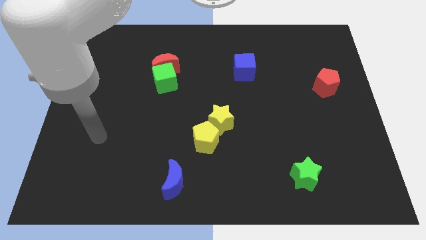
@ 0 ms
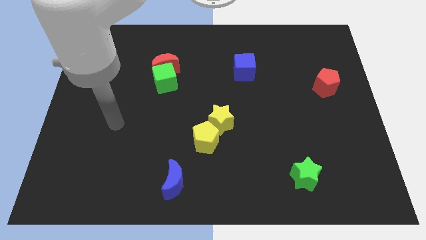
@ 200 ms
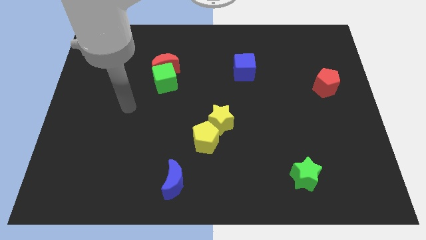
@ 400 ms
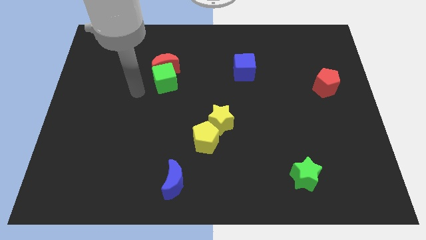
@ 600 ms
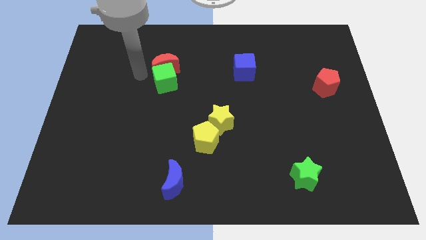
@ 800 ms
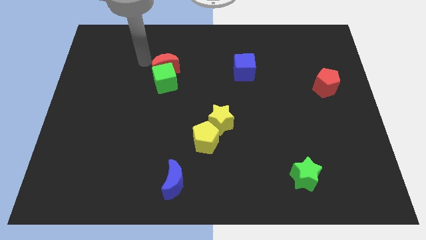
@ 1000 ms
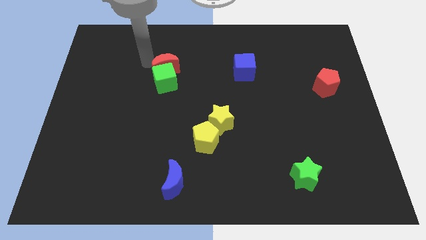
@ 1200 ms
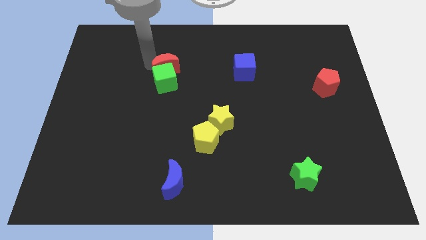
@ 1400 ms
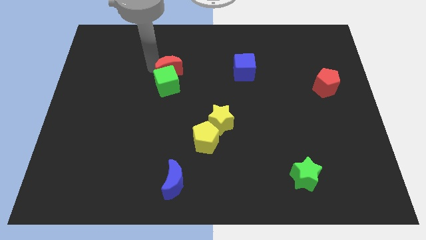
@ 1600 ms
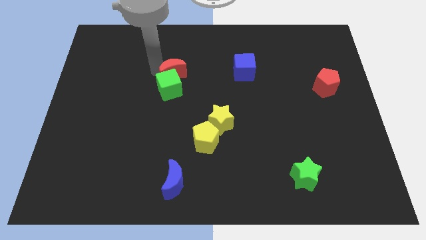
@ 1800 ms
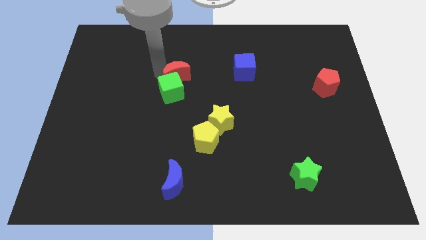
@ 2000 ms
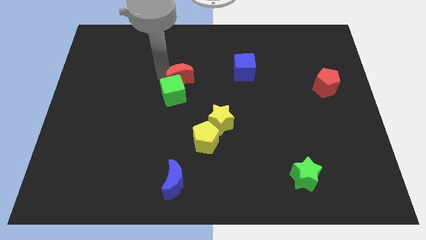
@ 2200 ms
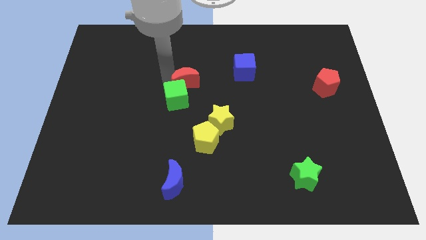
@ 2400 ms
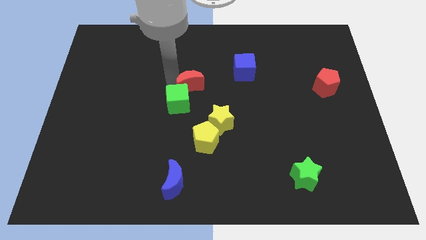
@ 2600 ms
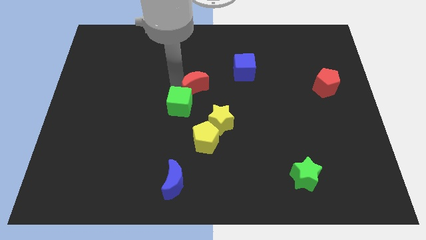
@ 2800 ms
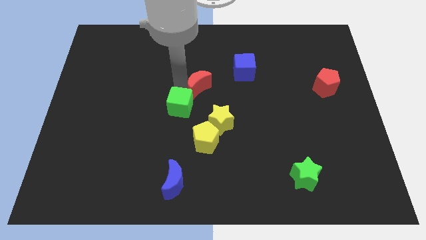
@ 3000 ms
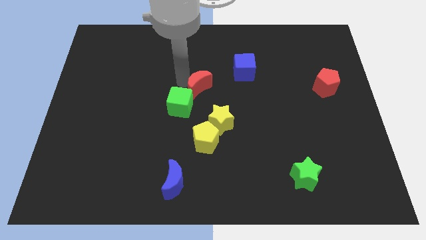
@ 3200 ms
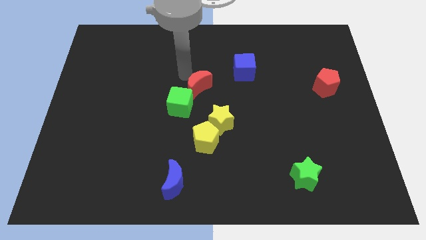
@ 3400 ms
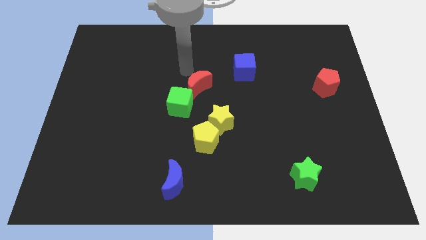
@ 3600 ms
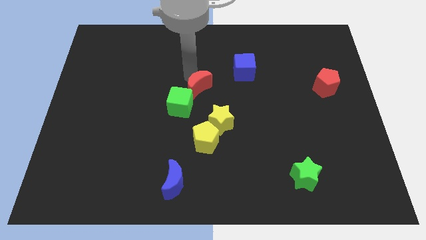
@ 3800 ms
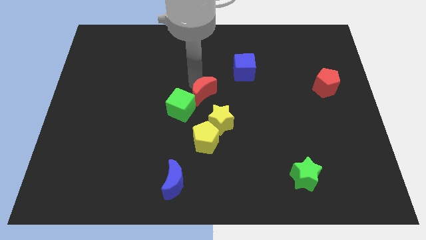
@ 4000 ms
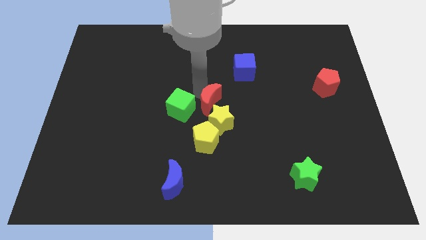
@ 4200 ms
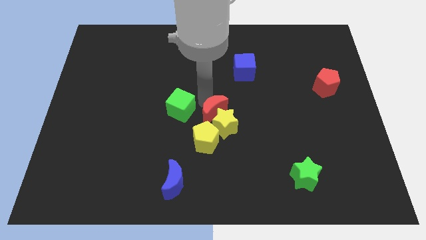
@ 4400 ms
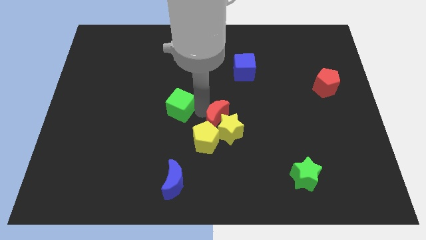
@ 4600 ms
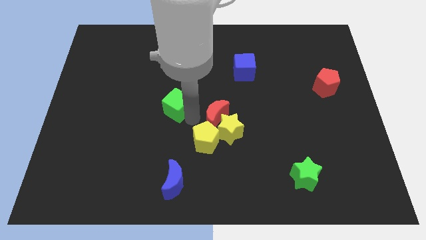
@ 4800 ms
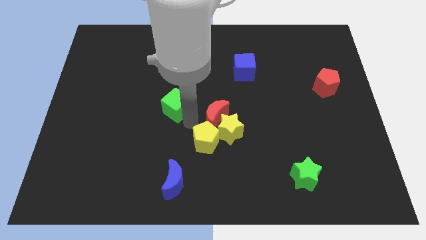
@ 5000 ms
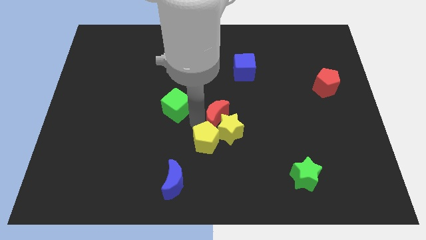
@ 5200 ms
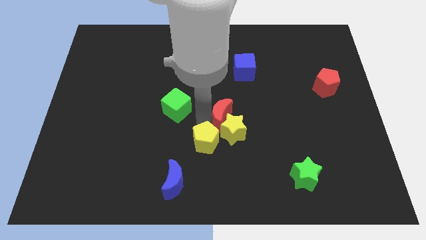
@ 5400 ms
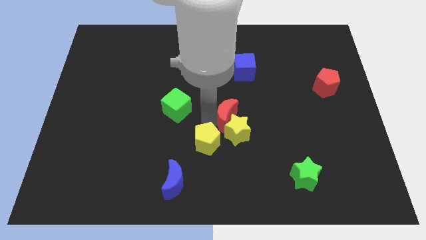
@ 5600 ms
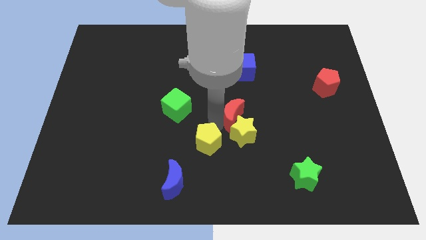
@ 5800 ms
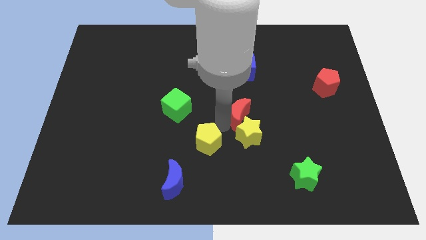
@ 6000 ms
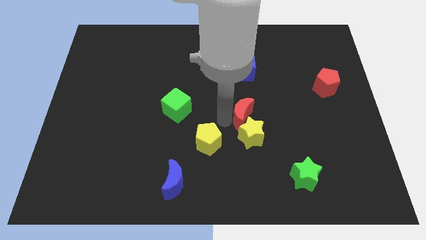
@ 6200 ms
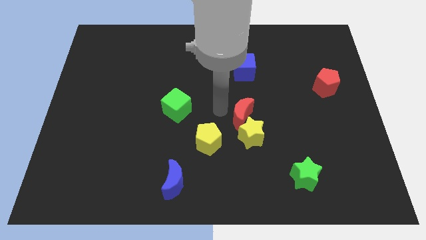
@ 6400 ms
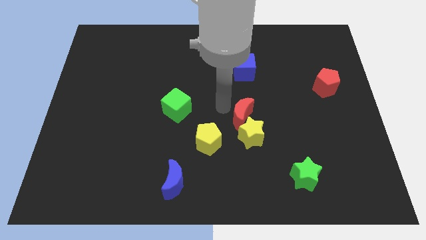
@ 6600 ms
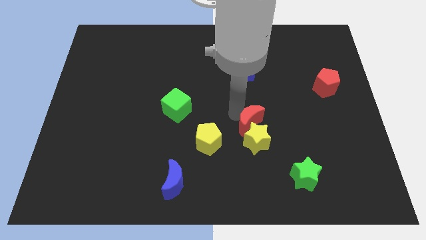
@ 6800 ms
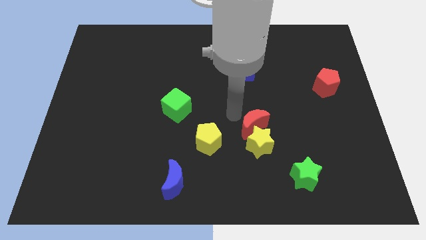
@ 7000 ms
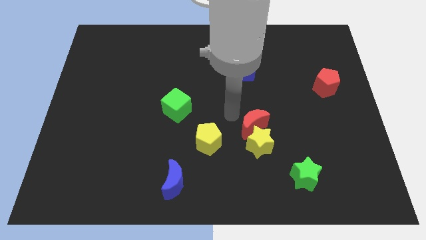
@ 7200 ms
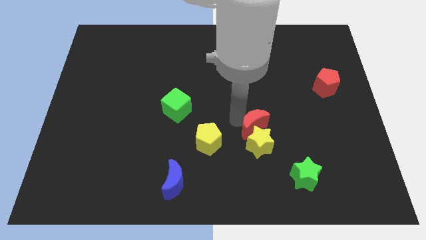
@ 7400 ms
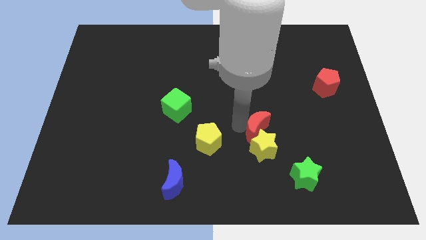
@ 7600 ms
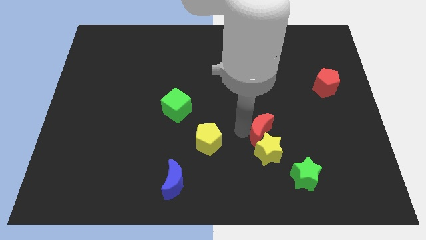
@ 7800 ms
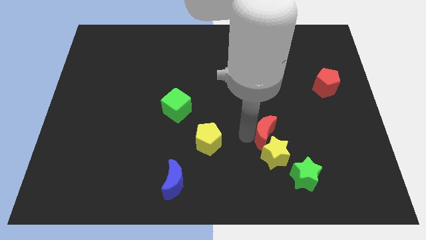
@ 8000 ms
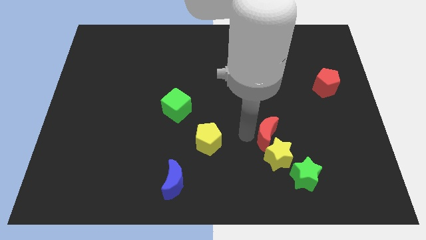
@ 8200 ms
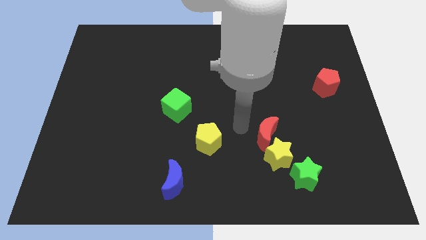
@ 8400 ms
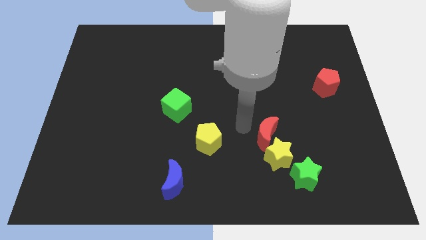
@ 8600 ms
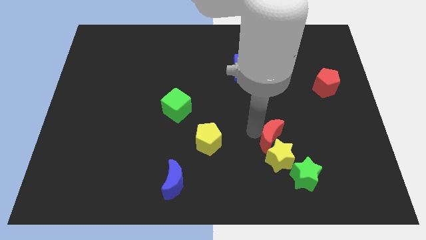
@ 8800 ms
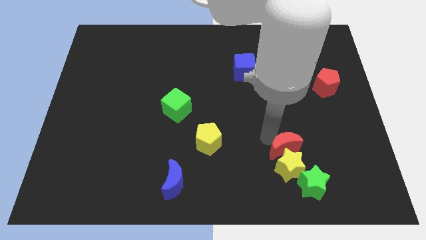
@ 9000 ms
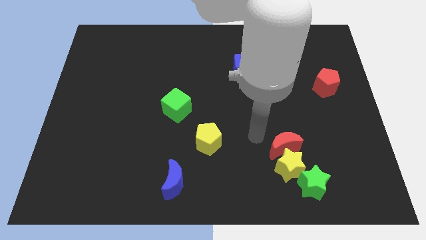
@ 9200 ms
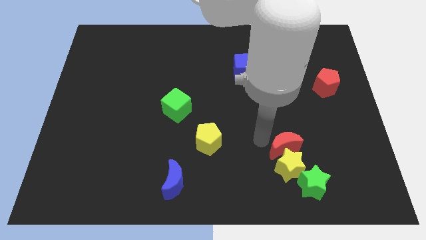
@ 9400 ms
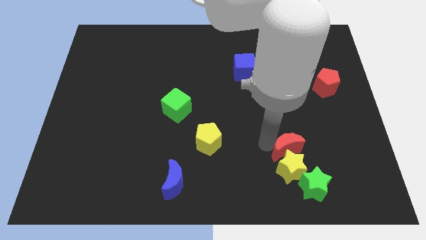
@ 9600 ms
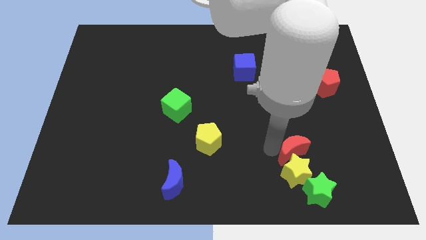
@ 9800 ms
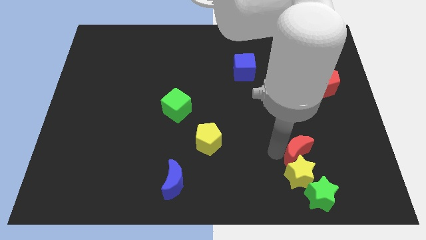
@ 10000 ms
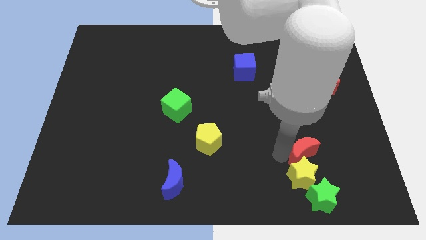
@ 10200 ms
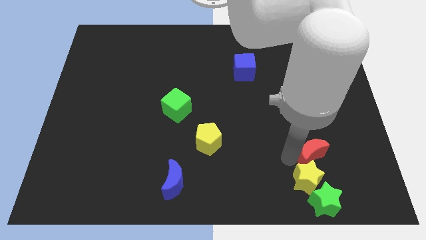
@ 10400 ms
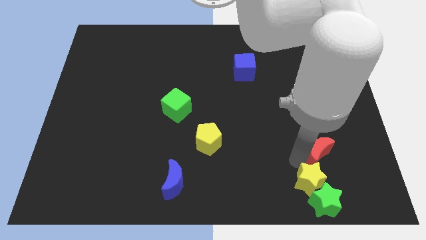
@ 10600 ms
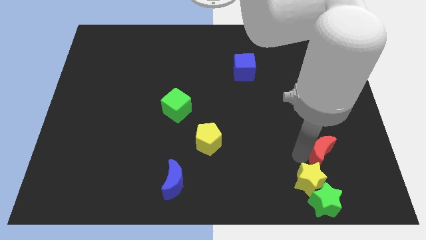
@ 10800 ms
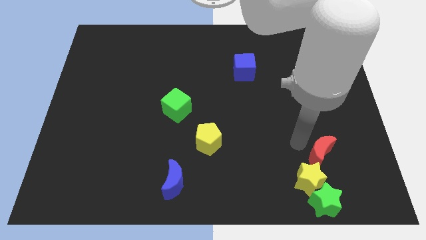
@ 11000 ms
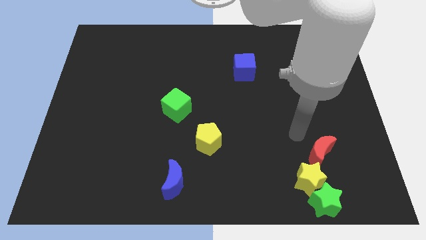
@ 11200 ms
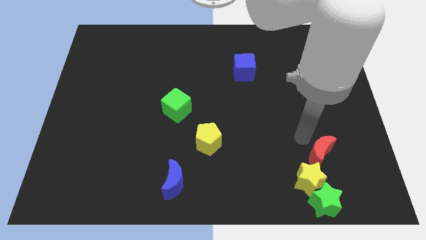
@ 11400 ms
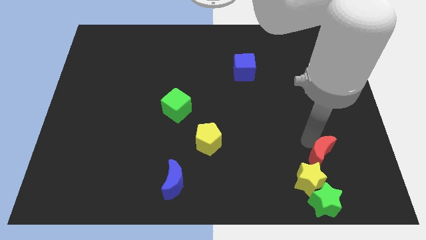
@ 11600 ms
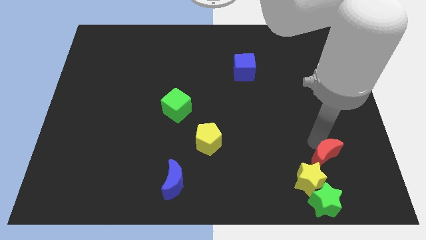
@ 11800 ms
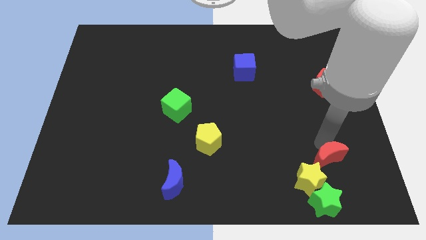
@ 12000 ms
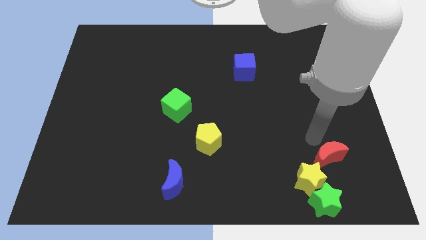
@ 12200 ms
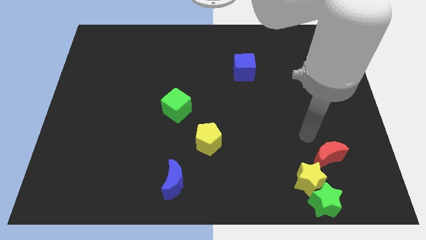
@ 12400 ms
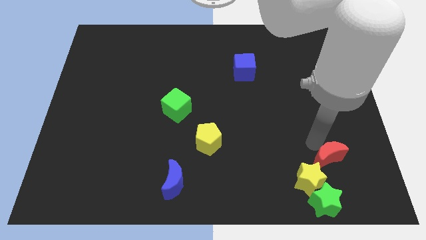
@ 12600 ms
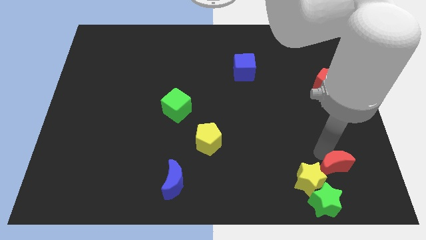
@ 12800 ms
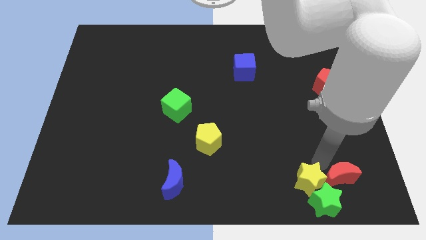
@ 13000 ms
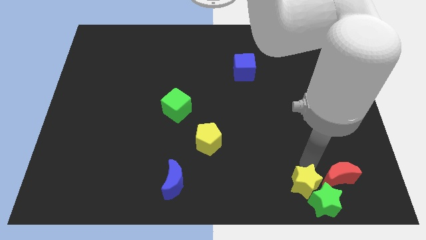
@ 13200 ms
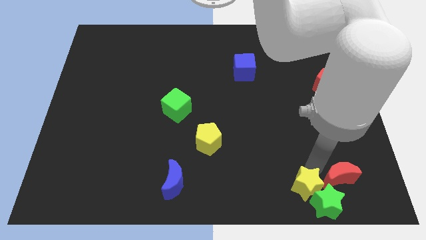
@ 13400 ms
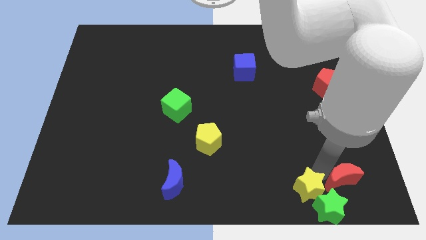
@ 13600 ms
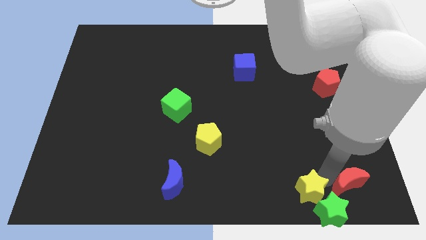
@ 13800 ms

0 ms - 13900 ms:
put the red moon to the bottom right of the board
